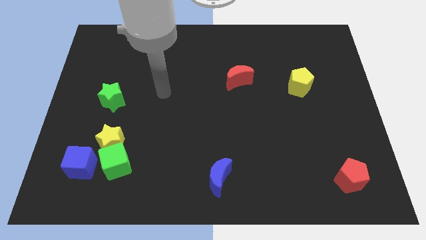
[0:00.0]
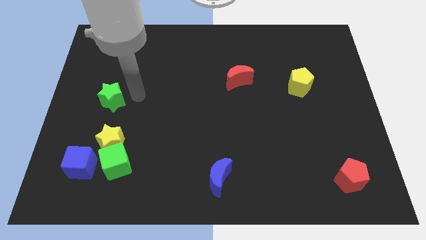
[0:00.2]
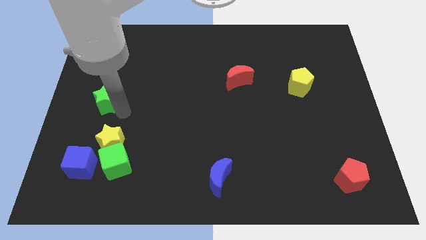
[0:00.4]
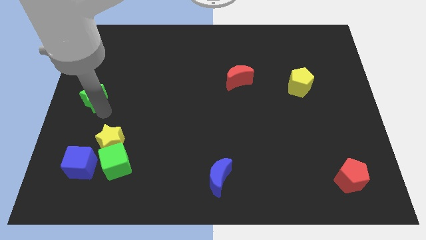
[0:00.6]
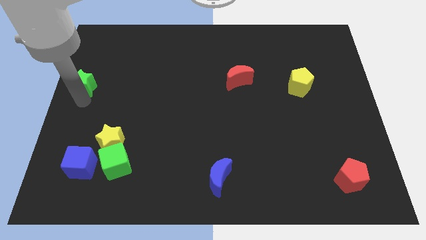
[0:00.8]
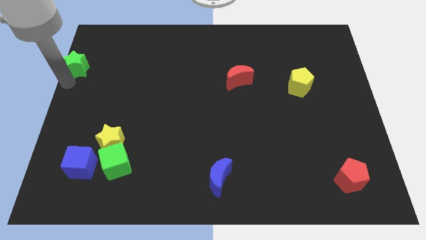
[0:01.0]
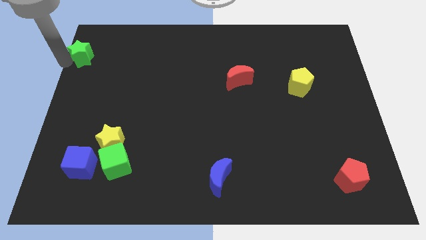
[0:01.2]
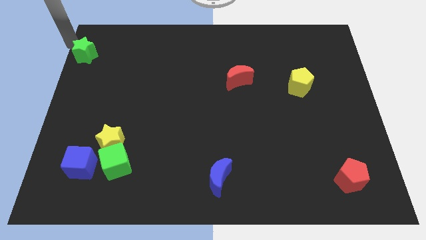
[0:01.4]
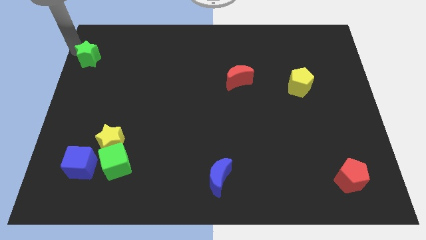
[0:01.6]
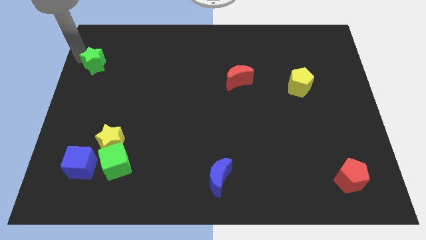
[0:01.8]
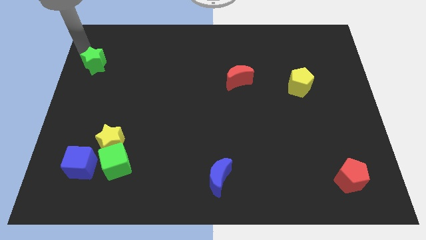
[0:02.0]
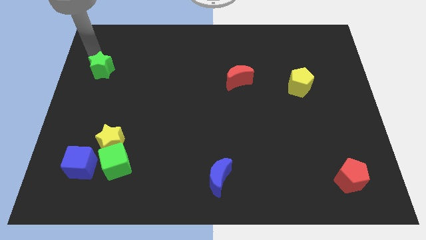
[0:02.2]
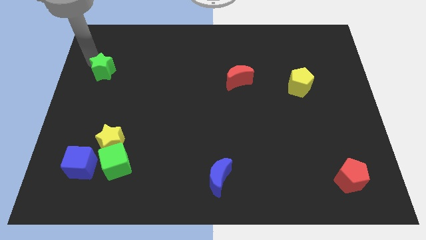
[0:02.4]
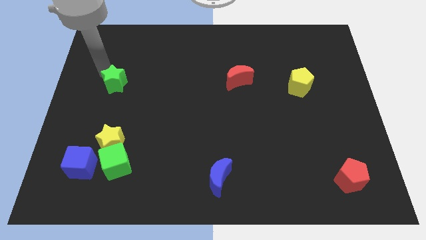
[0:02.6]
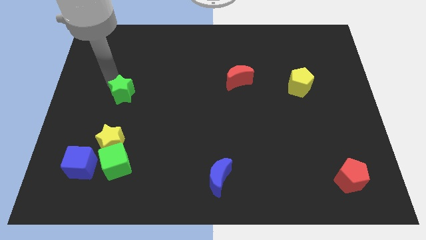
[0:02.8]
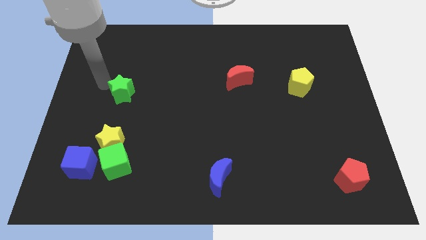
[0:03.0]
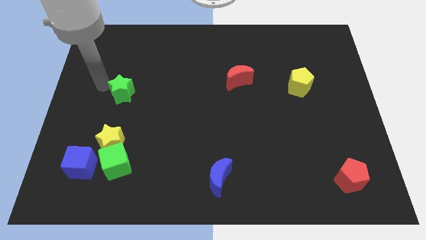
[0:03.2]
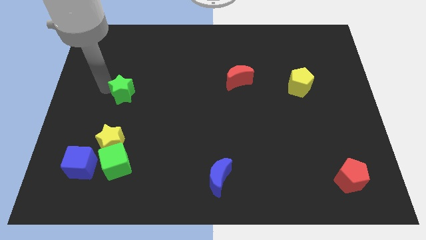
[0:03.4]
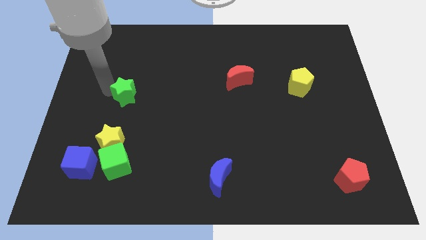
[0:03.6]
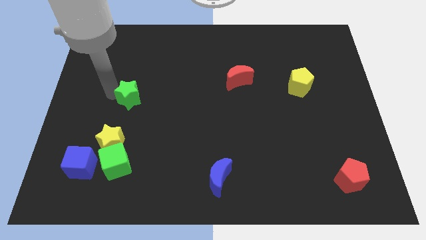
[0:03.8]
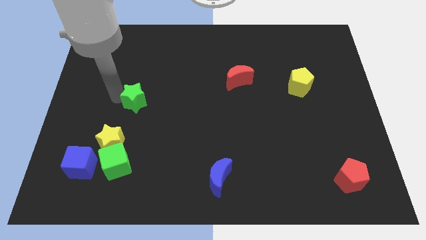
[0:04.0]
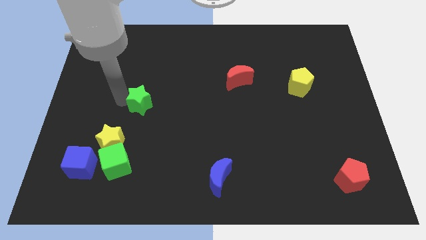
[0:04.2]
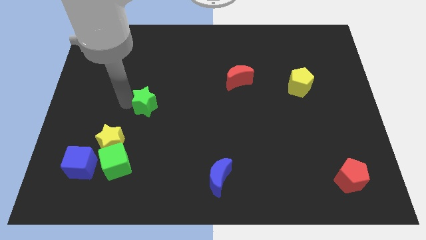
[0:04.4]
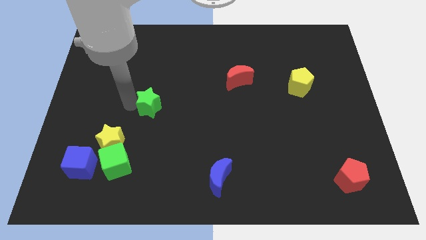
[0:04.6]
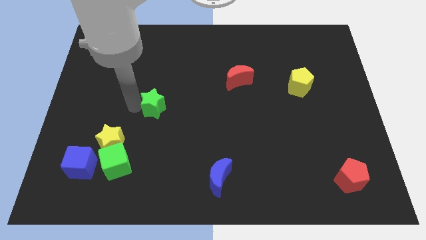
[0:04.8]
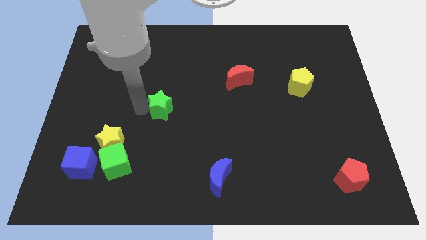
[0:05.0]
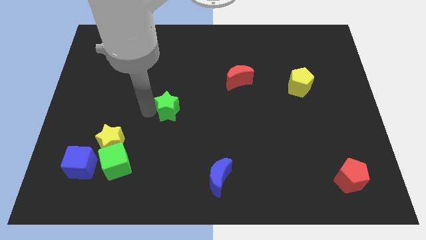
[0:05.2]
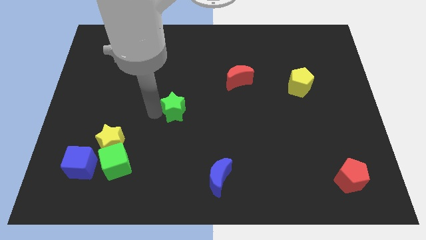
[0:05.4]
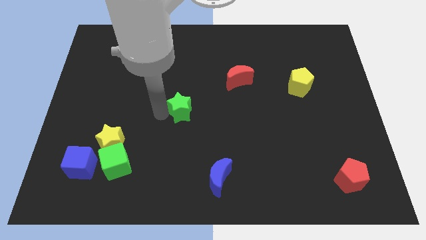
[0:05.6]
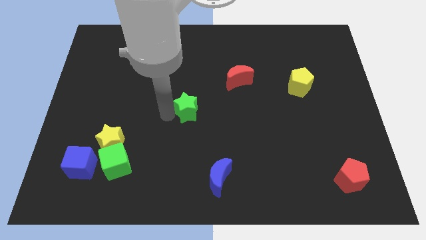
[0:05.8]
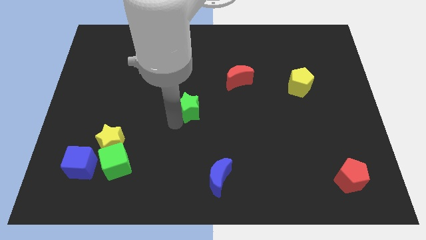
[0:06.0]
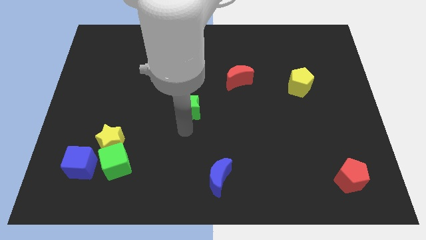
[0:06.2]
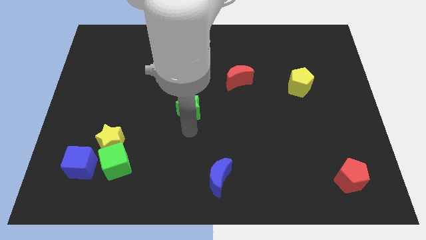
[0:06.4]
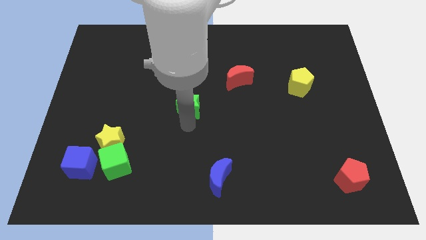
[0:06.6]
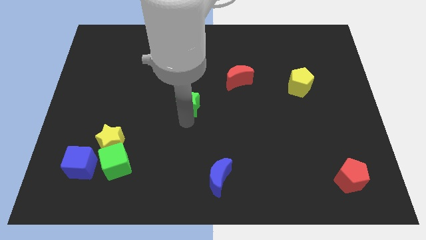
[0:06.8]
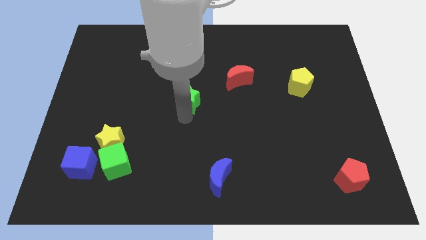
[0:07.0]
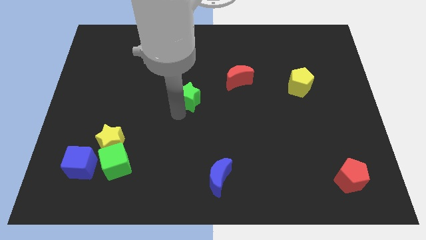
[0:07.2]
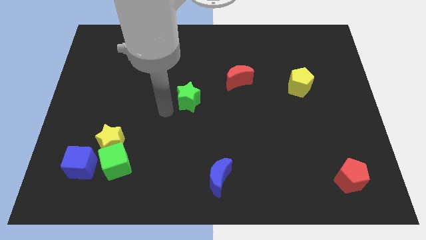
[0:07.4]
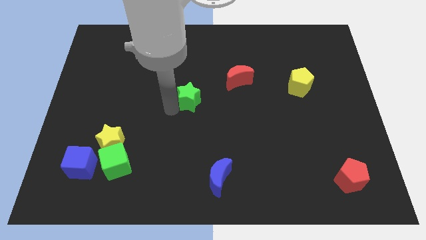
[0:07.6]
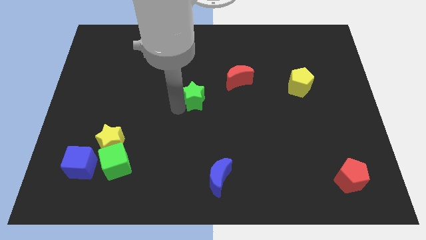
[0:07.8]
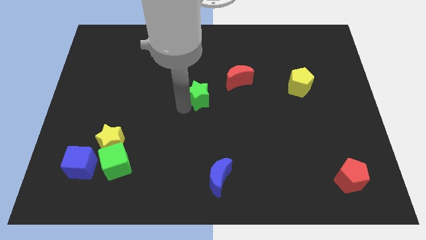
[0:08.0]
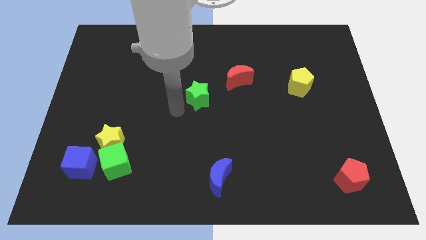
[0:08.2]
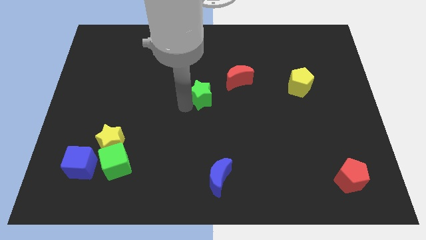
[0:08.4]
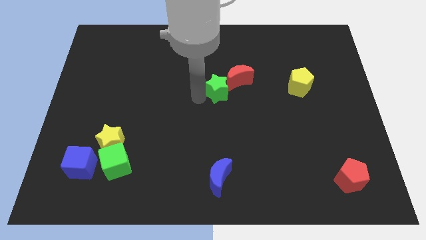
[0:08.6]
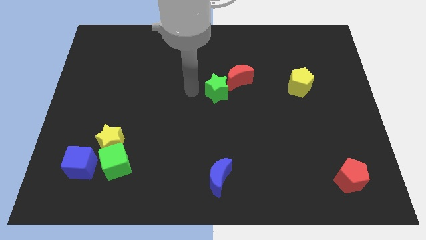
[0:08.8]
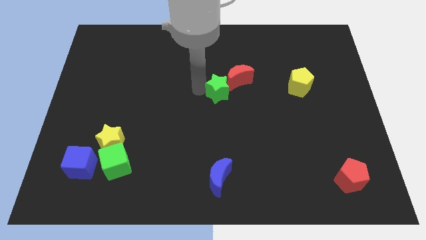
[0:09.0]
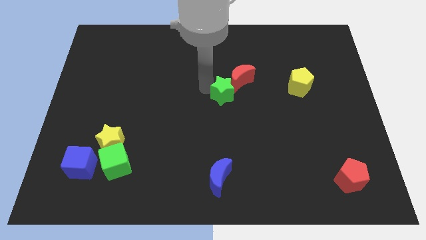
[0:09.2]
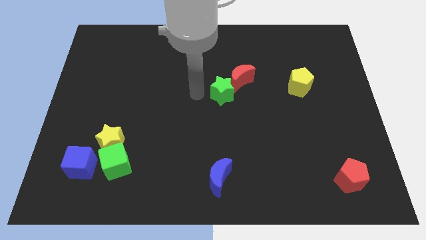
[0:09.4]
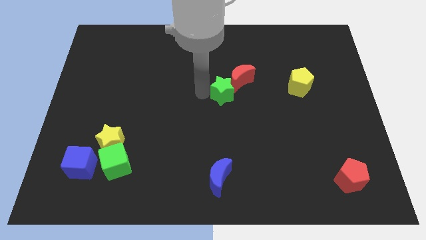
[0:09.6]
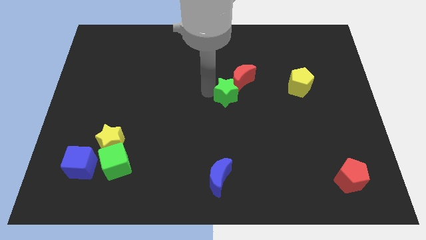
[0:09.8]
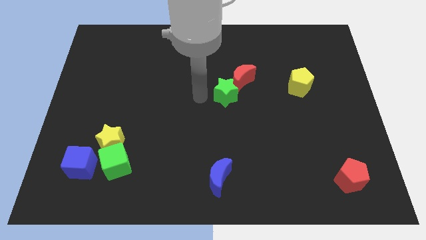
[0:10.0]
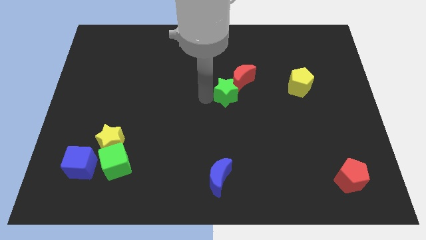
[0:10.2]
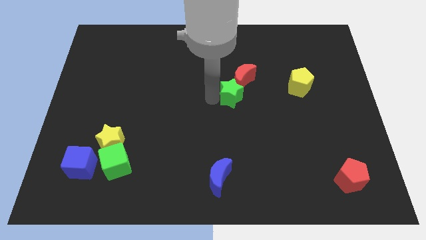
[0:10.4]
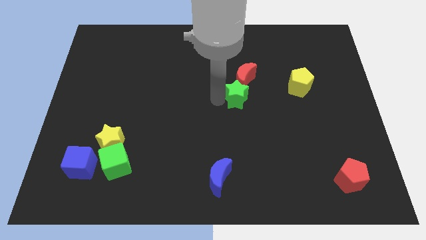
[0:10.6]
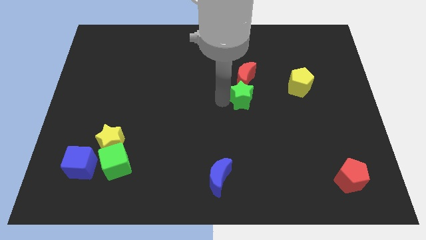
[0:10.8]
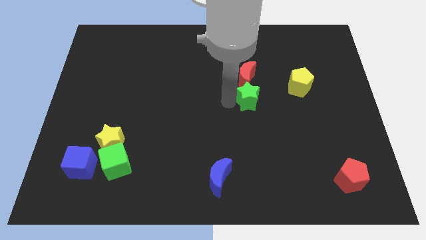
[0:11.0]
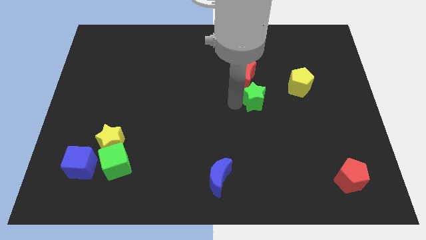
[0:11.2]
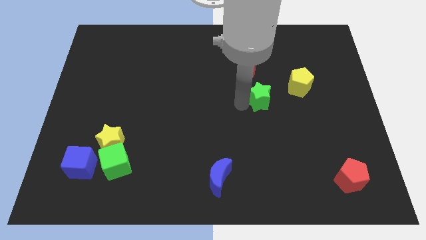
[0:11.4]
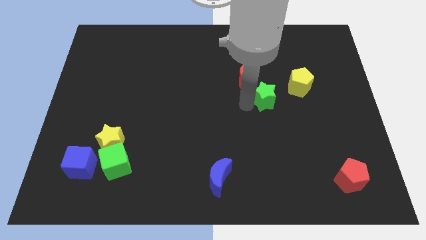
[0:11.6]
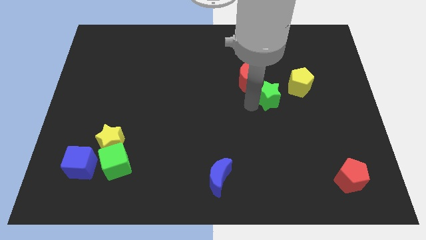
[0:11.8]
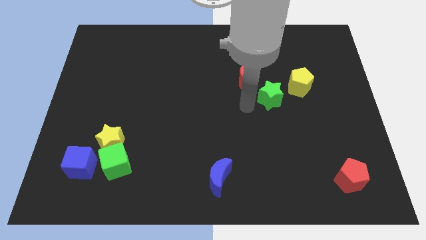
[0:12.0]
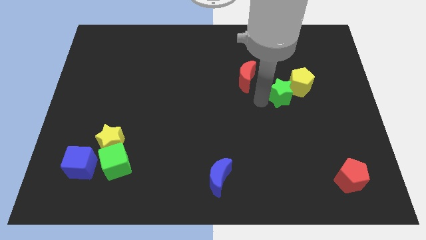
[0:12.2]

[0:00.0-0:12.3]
put the green star next to the yellow pentagon
